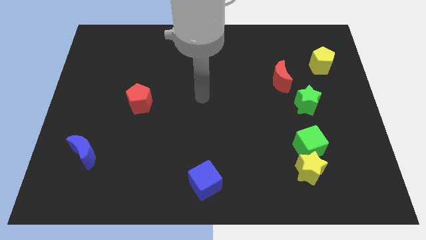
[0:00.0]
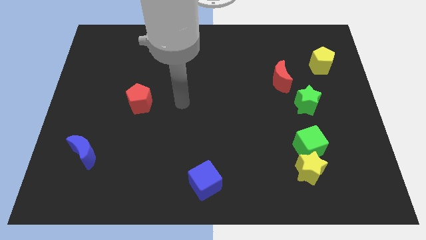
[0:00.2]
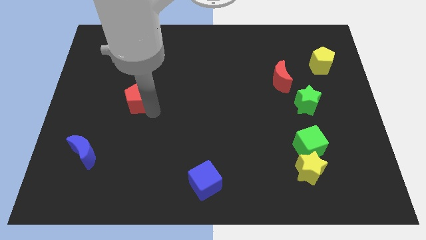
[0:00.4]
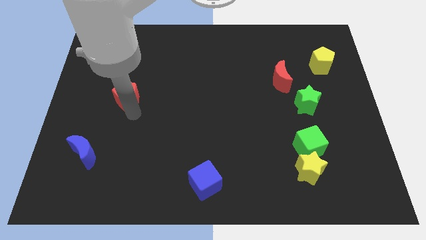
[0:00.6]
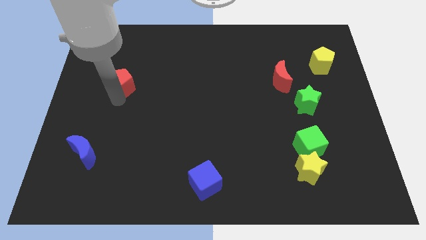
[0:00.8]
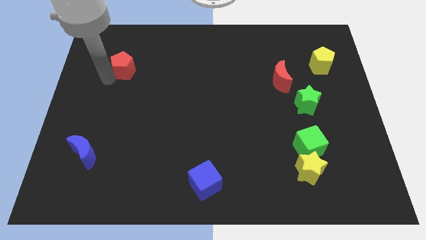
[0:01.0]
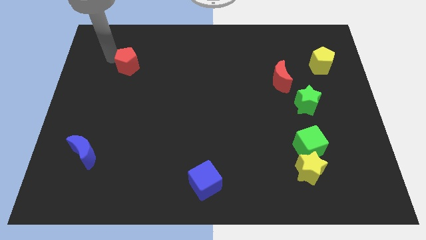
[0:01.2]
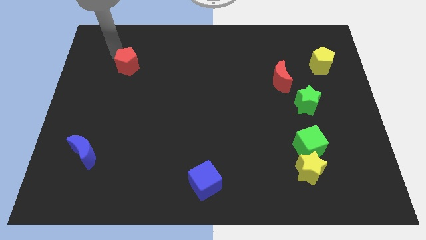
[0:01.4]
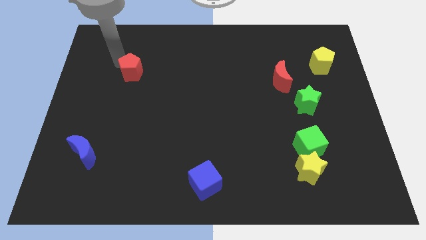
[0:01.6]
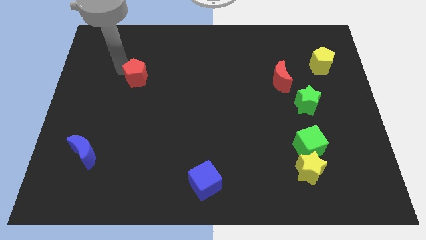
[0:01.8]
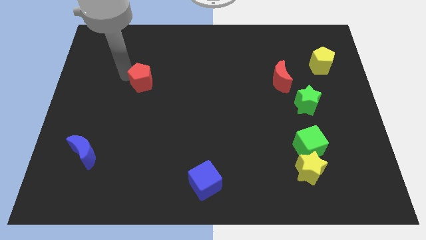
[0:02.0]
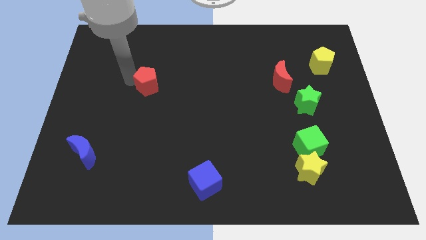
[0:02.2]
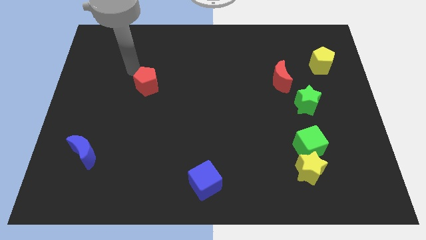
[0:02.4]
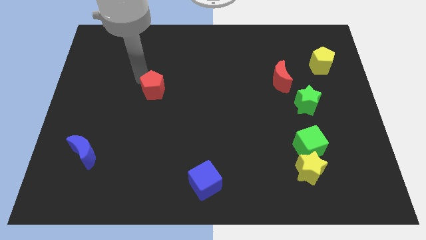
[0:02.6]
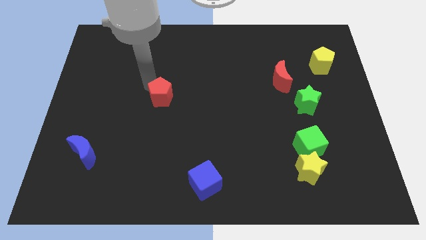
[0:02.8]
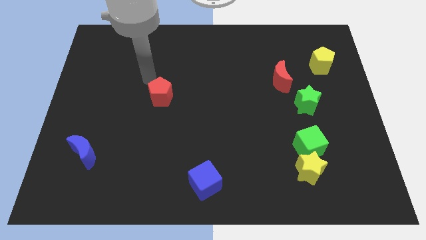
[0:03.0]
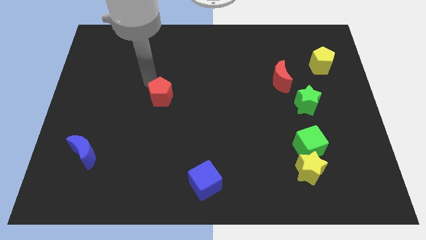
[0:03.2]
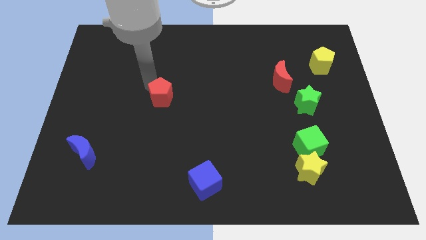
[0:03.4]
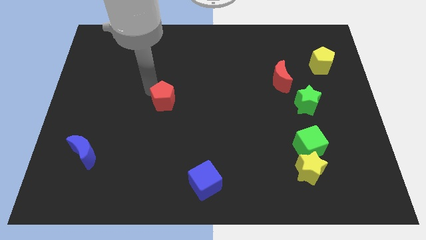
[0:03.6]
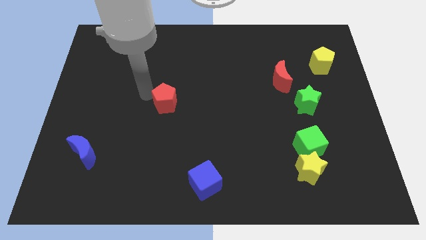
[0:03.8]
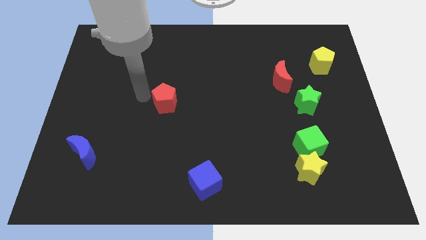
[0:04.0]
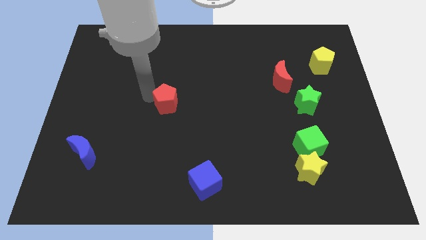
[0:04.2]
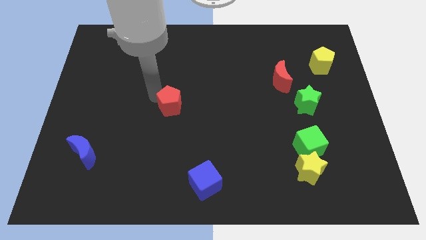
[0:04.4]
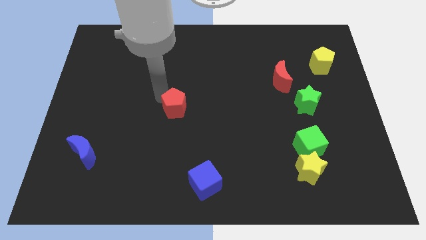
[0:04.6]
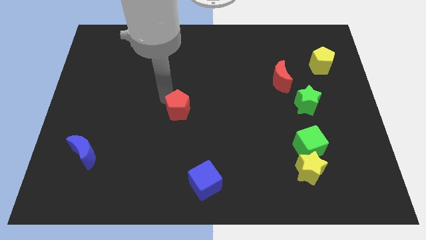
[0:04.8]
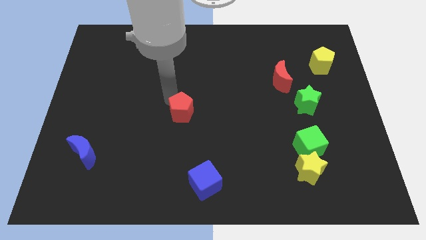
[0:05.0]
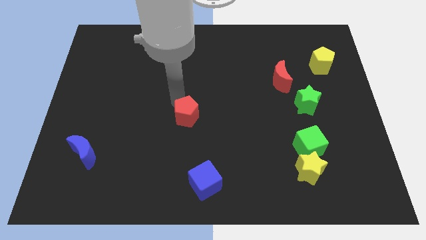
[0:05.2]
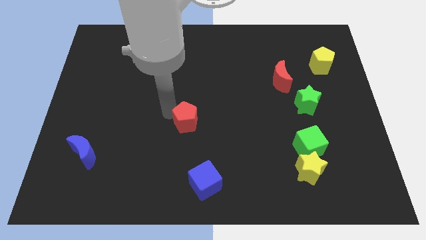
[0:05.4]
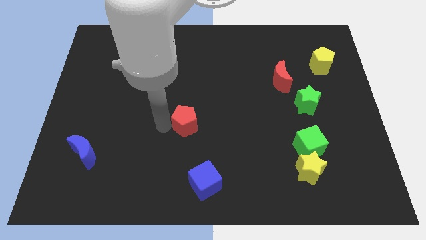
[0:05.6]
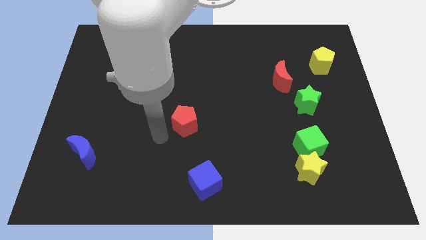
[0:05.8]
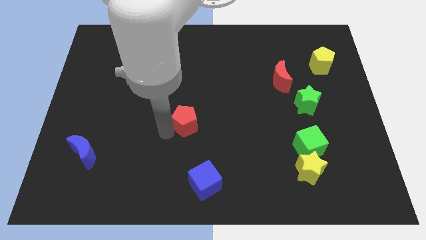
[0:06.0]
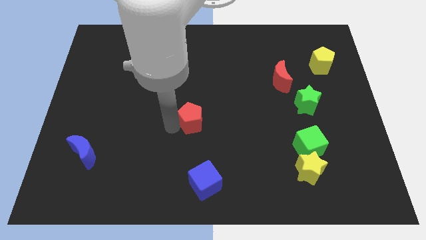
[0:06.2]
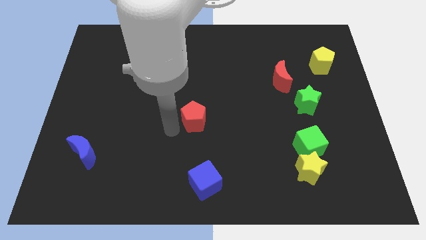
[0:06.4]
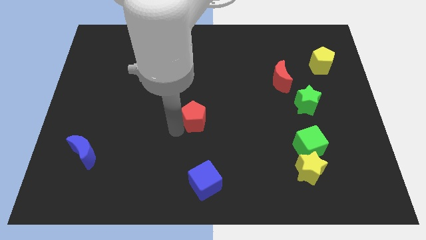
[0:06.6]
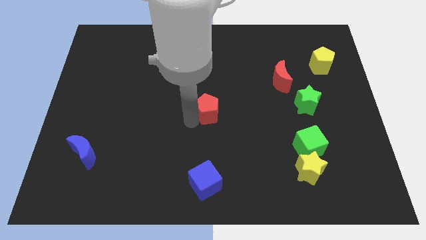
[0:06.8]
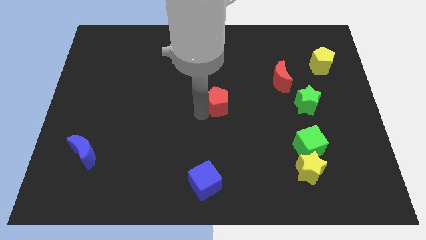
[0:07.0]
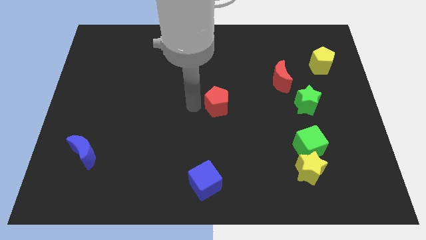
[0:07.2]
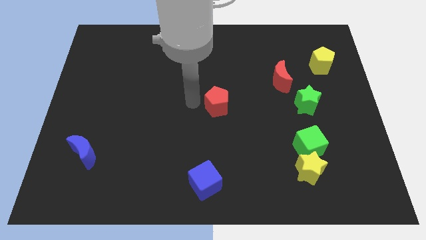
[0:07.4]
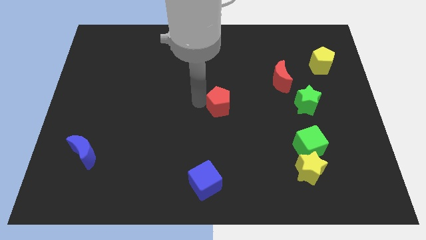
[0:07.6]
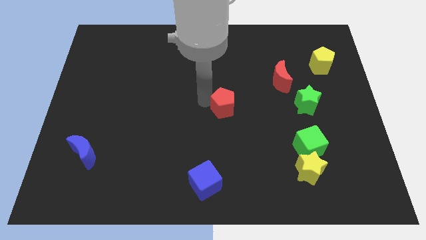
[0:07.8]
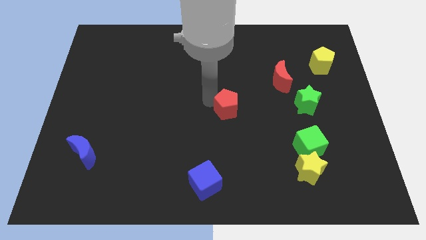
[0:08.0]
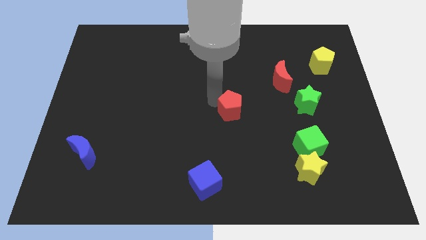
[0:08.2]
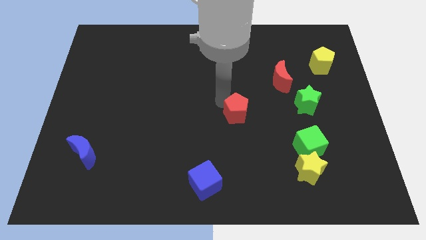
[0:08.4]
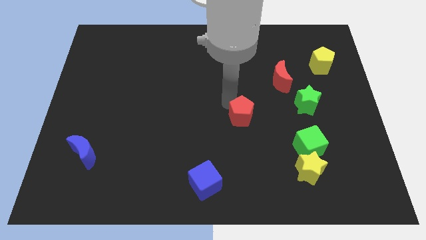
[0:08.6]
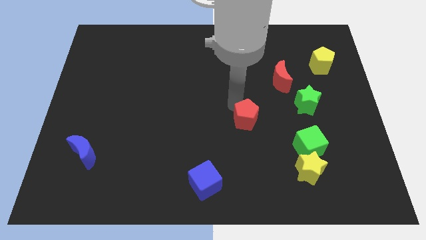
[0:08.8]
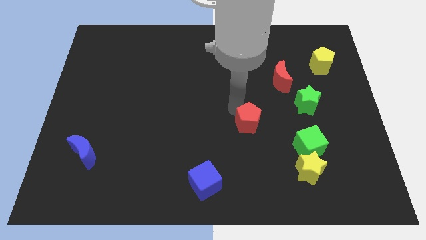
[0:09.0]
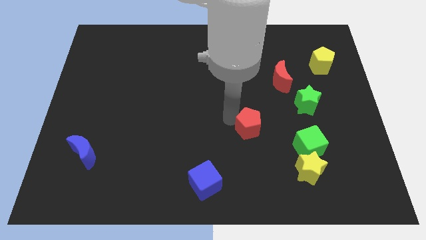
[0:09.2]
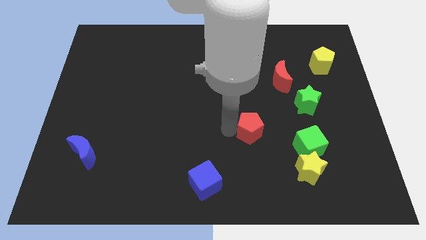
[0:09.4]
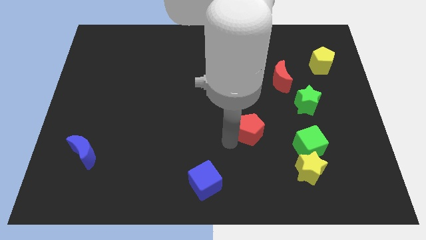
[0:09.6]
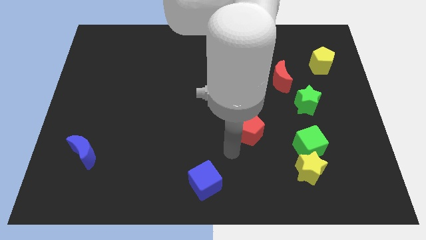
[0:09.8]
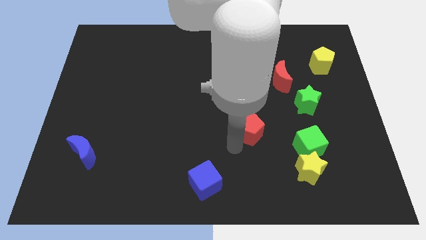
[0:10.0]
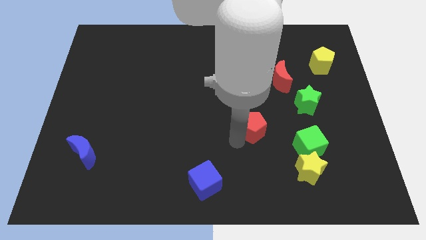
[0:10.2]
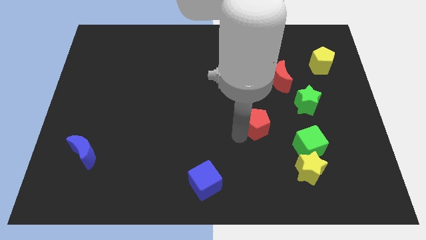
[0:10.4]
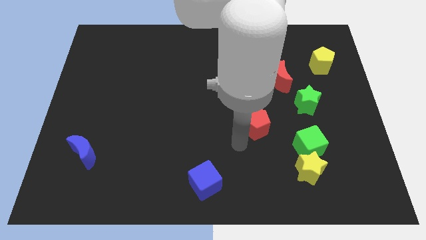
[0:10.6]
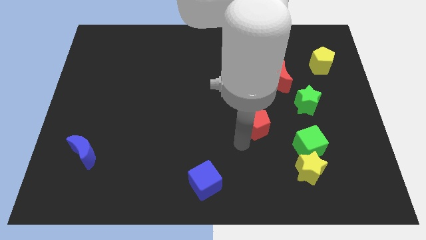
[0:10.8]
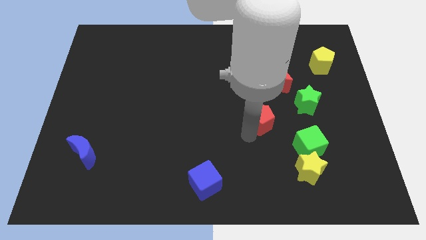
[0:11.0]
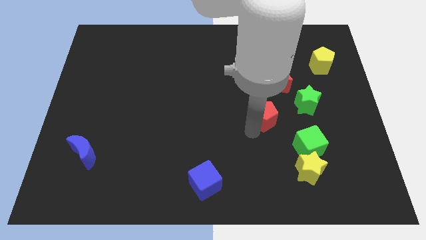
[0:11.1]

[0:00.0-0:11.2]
put the red pentagon to the bottom left of the green star

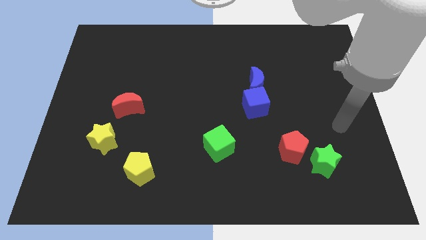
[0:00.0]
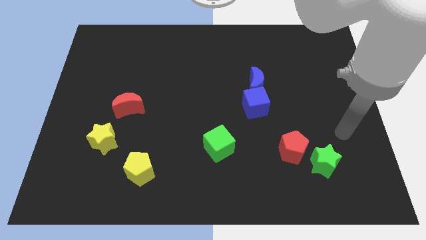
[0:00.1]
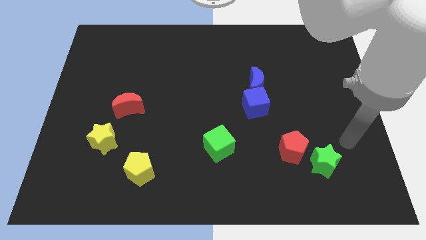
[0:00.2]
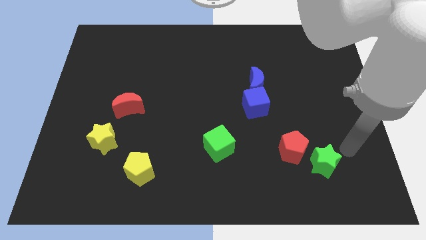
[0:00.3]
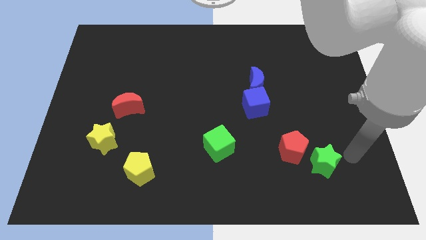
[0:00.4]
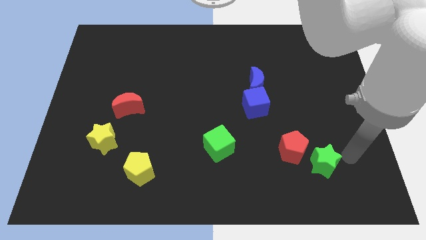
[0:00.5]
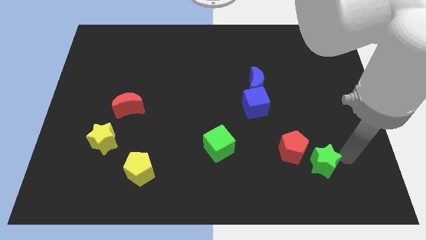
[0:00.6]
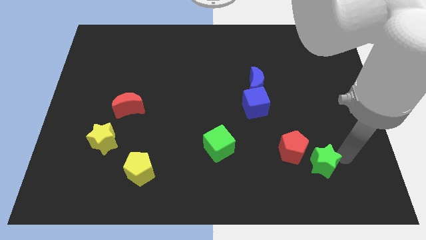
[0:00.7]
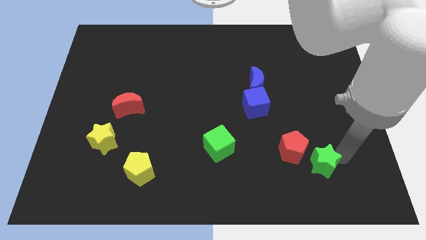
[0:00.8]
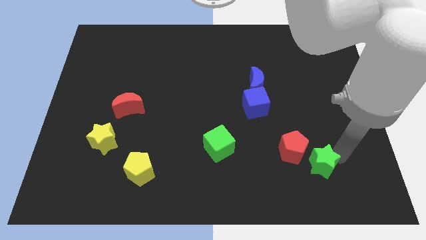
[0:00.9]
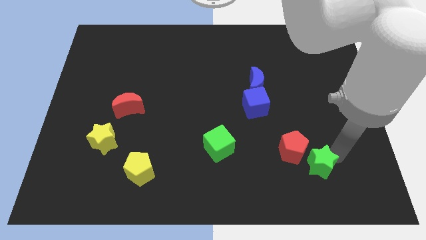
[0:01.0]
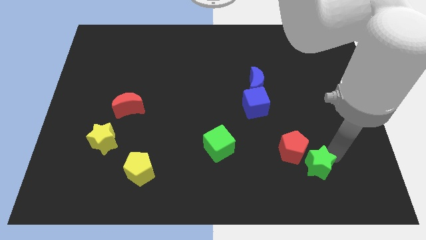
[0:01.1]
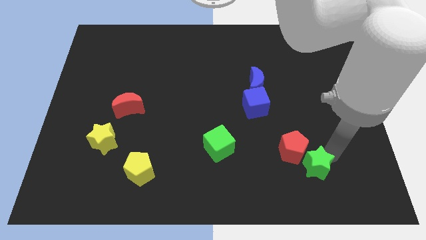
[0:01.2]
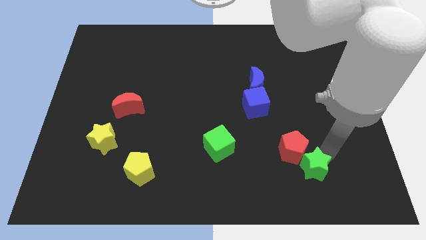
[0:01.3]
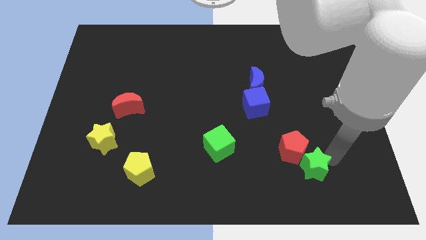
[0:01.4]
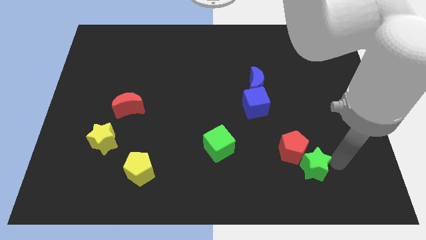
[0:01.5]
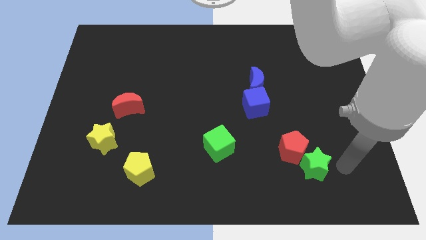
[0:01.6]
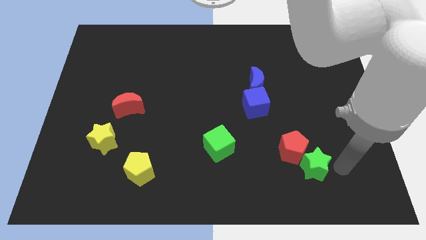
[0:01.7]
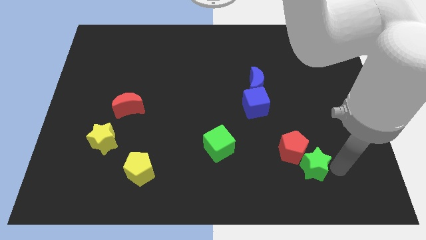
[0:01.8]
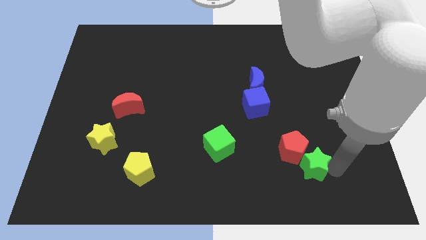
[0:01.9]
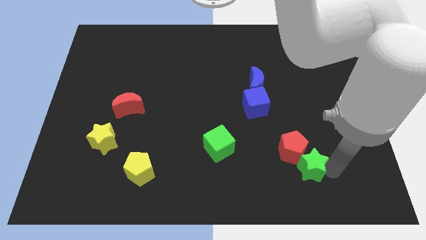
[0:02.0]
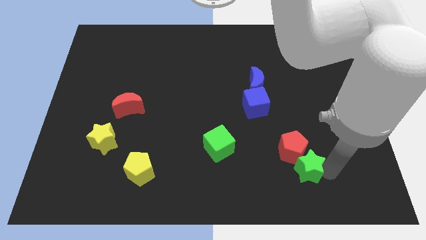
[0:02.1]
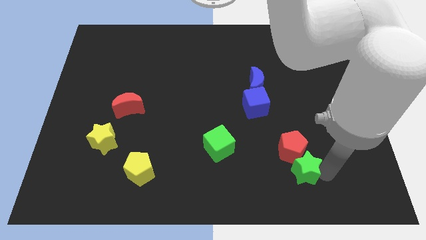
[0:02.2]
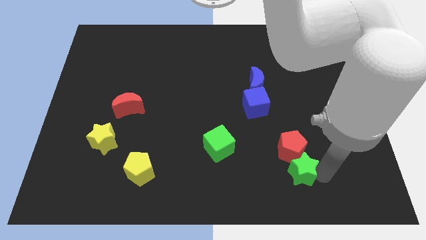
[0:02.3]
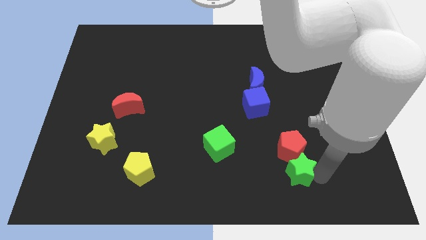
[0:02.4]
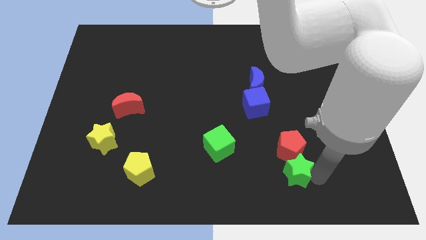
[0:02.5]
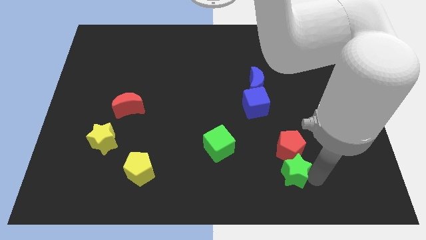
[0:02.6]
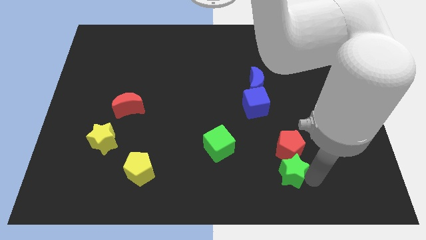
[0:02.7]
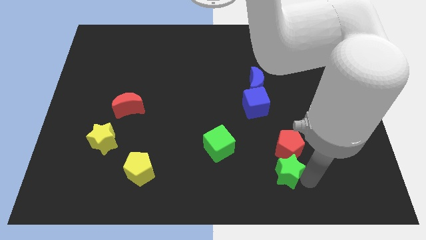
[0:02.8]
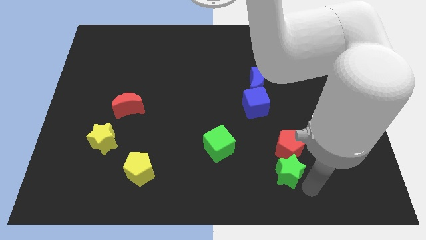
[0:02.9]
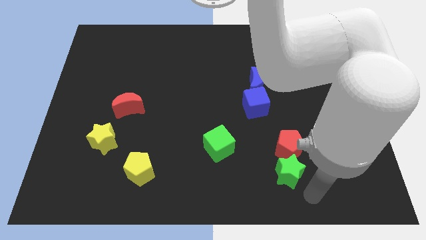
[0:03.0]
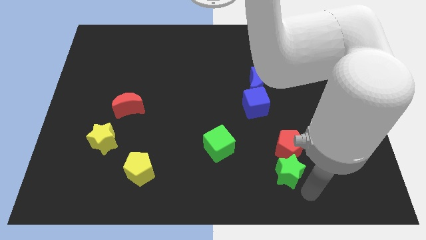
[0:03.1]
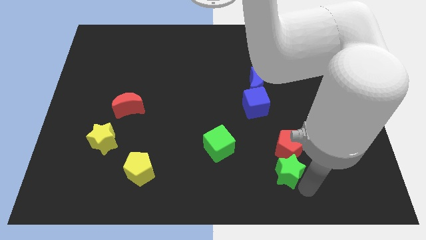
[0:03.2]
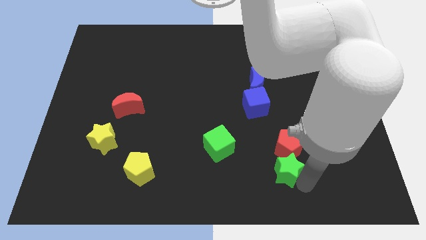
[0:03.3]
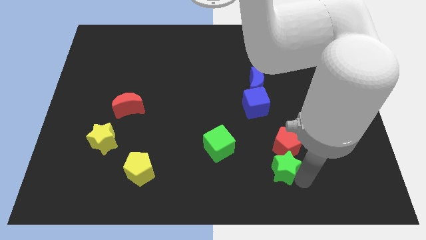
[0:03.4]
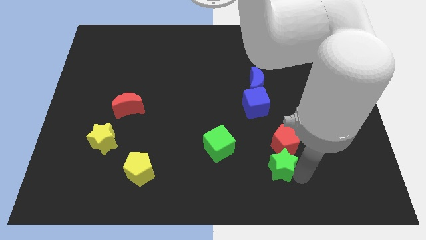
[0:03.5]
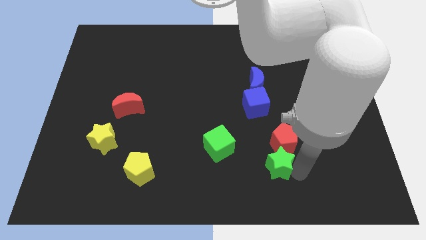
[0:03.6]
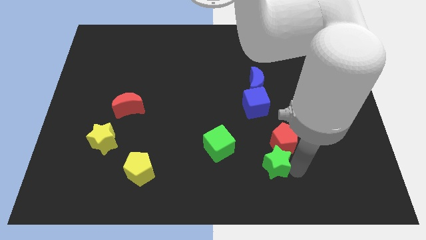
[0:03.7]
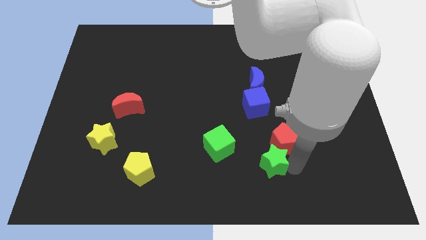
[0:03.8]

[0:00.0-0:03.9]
slide the green star to the bottom side of the blue cube
